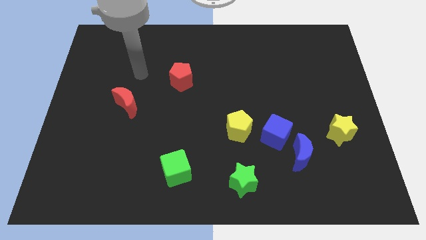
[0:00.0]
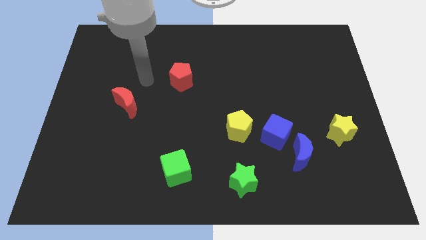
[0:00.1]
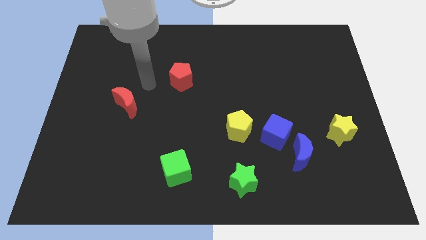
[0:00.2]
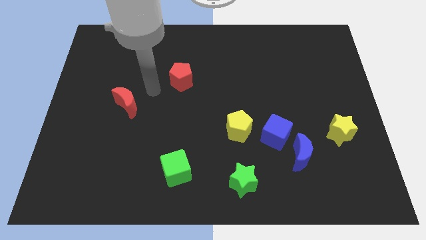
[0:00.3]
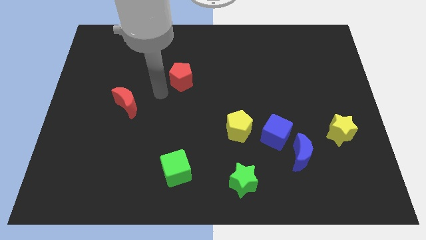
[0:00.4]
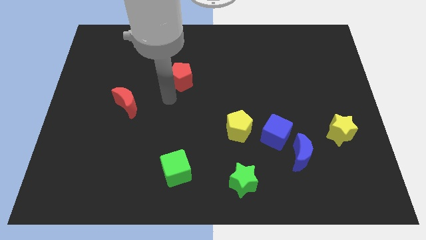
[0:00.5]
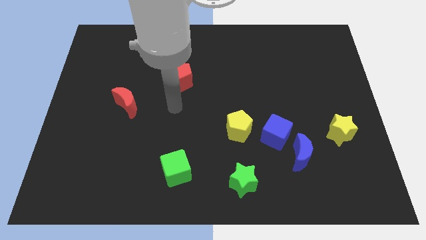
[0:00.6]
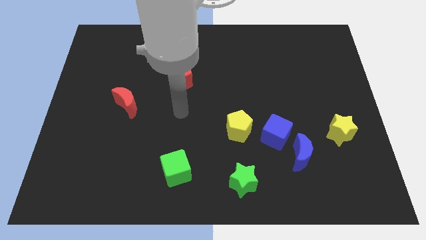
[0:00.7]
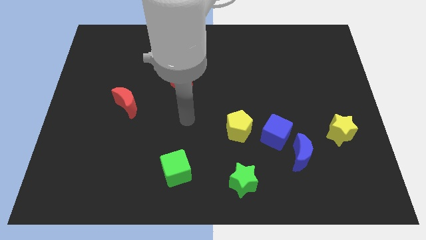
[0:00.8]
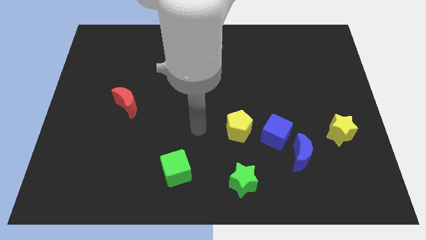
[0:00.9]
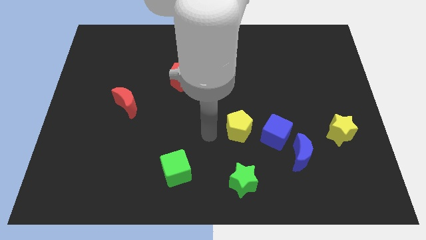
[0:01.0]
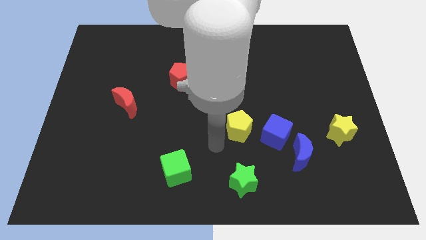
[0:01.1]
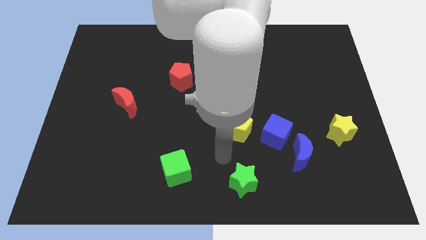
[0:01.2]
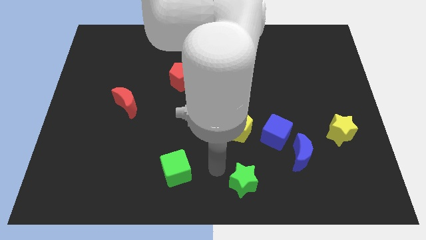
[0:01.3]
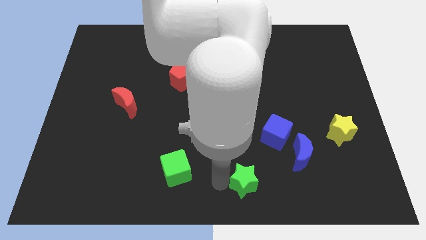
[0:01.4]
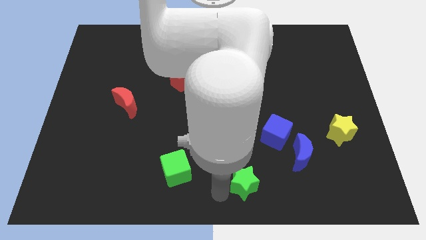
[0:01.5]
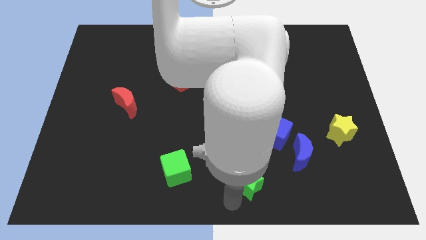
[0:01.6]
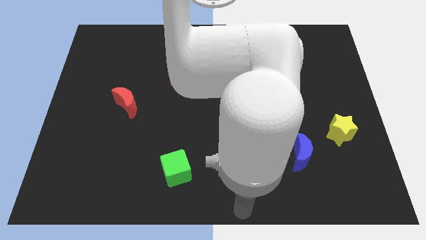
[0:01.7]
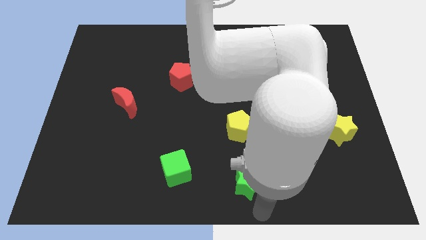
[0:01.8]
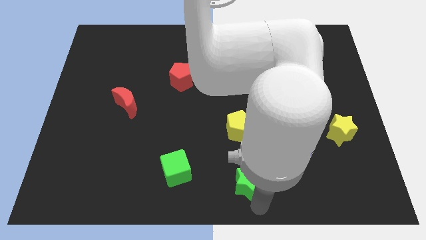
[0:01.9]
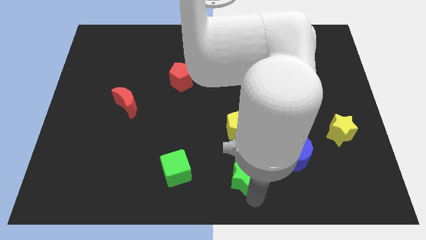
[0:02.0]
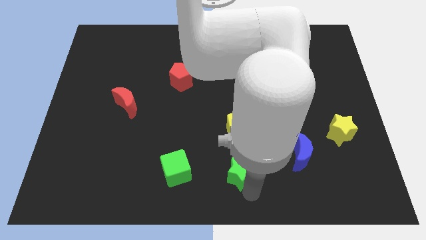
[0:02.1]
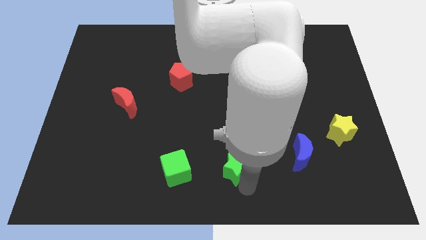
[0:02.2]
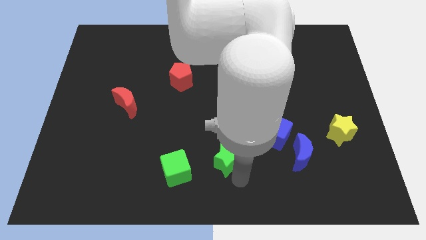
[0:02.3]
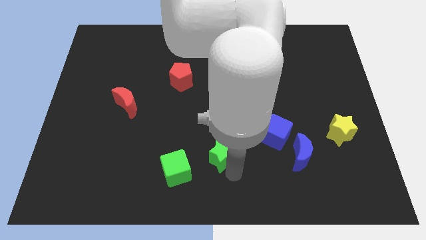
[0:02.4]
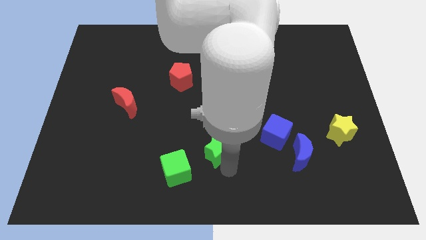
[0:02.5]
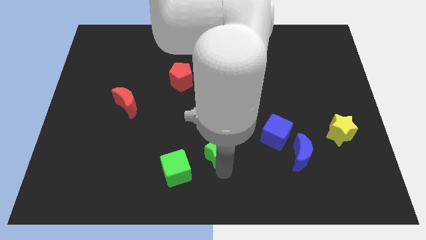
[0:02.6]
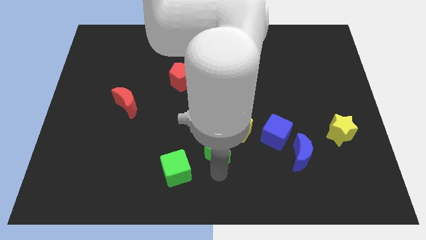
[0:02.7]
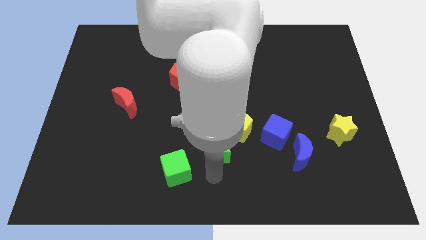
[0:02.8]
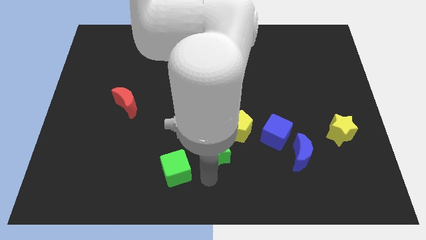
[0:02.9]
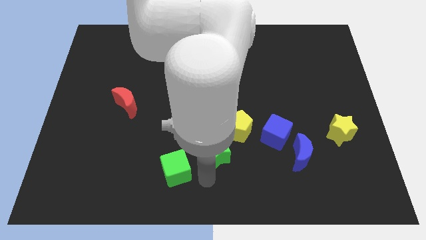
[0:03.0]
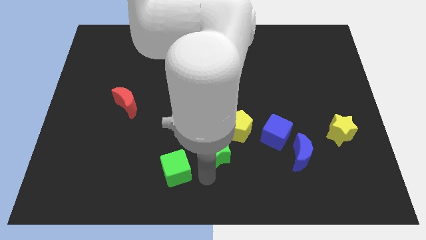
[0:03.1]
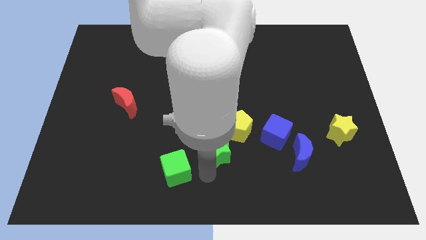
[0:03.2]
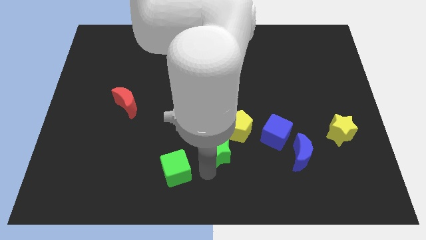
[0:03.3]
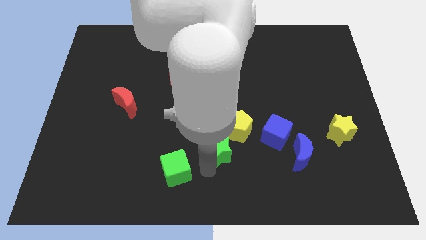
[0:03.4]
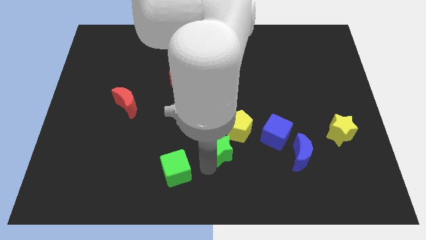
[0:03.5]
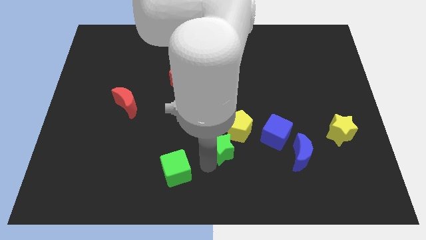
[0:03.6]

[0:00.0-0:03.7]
slide the green star somewhat upwards

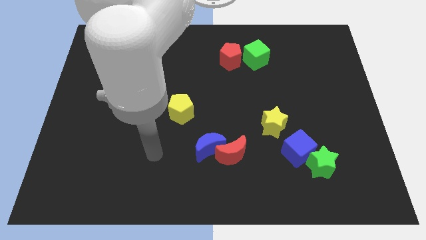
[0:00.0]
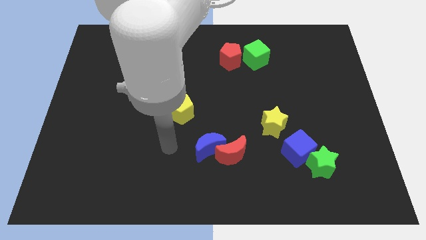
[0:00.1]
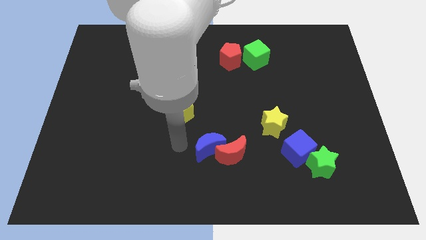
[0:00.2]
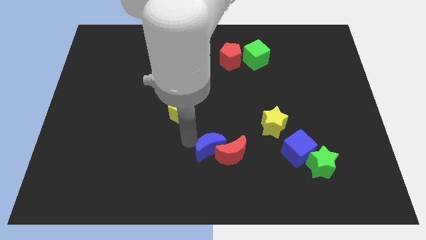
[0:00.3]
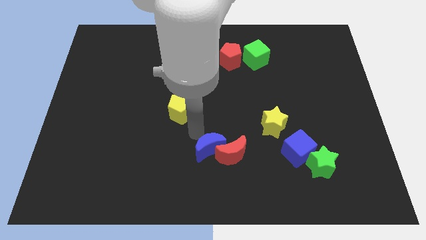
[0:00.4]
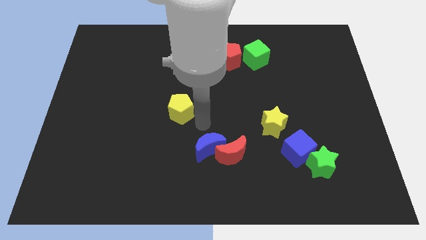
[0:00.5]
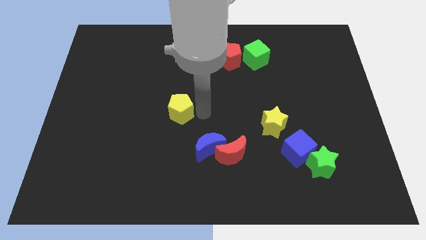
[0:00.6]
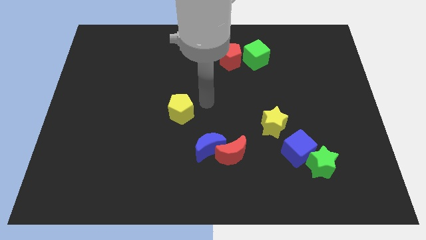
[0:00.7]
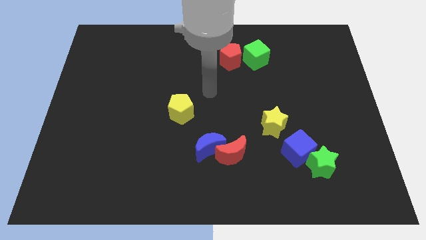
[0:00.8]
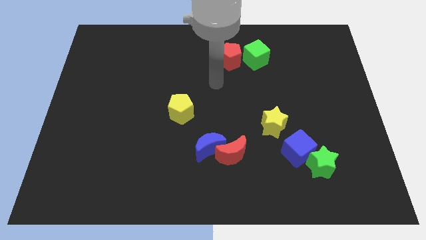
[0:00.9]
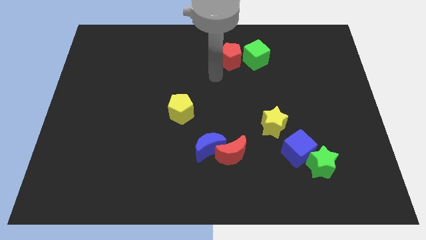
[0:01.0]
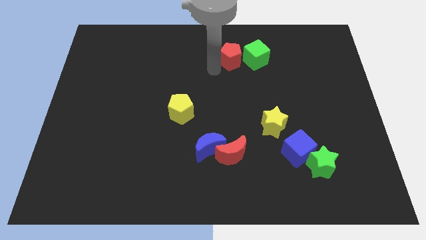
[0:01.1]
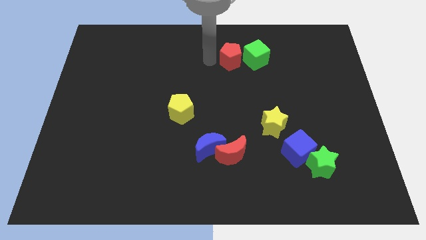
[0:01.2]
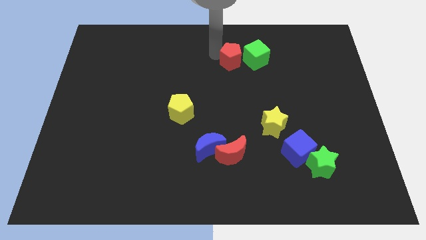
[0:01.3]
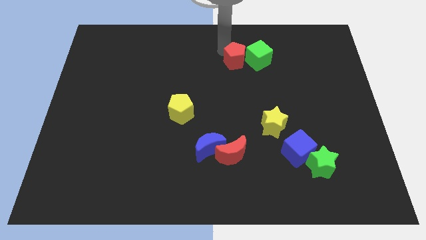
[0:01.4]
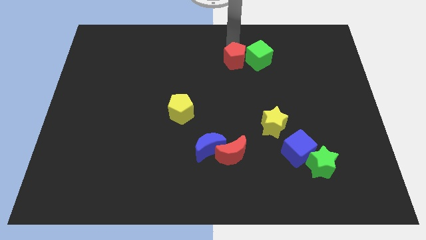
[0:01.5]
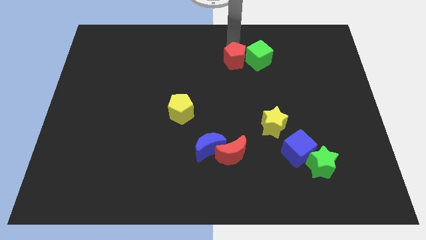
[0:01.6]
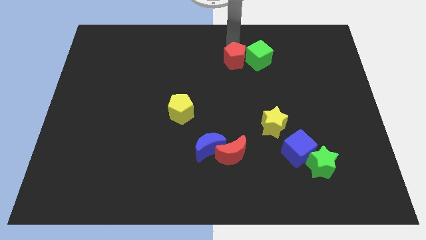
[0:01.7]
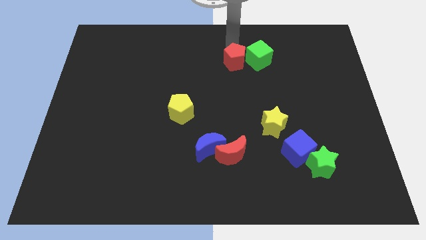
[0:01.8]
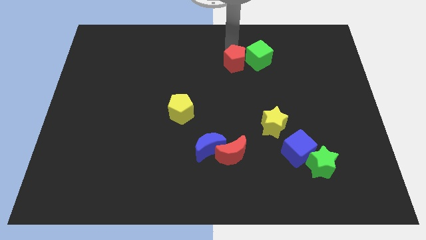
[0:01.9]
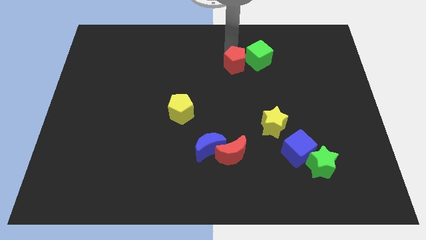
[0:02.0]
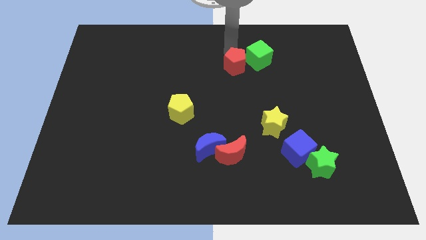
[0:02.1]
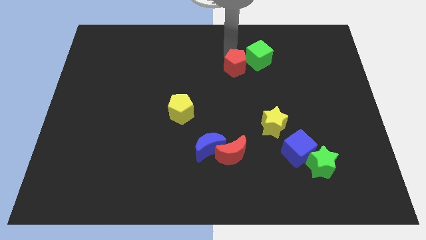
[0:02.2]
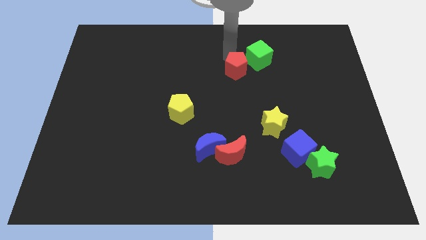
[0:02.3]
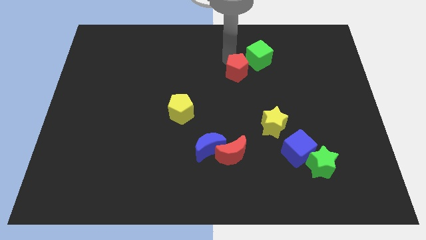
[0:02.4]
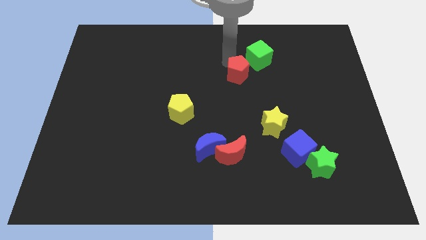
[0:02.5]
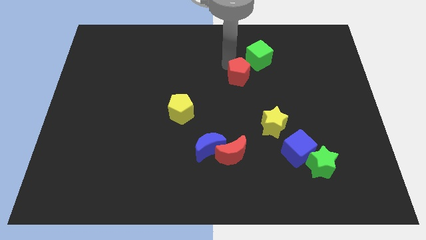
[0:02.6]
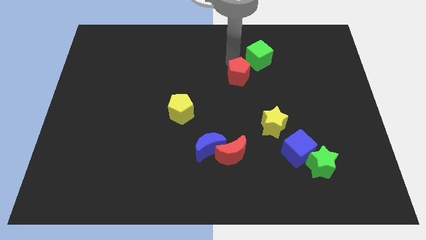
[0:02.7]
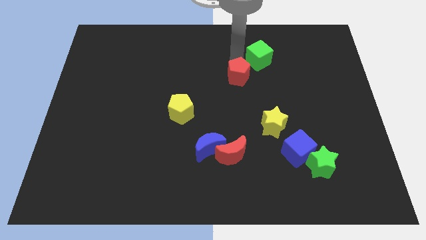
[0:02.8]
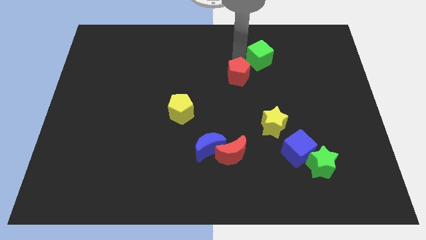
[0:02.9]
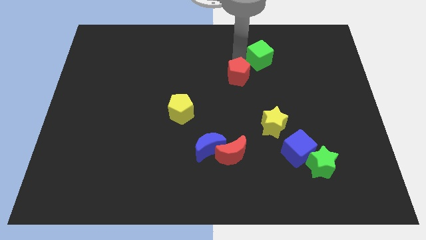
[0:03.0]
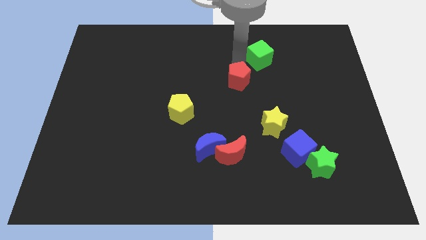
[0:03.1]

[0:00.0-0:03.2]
slightly slide the red pentagon downwards

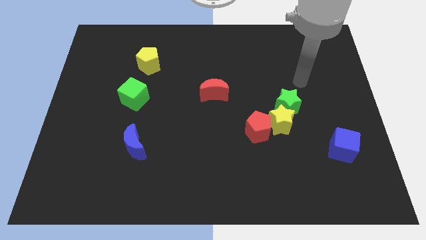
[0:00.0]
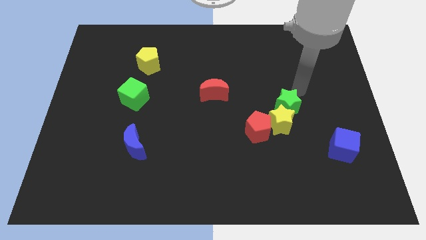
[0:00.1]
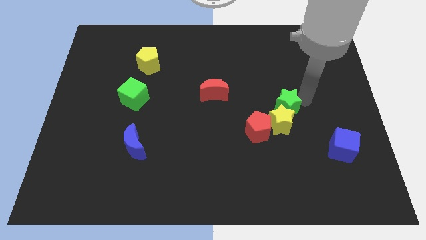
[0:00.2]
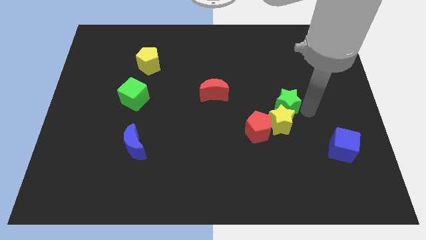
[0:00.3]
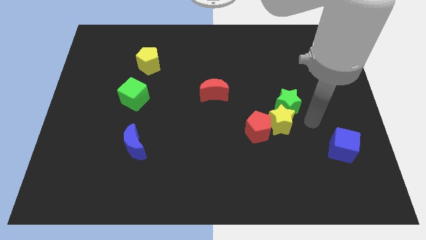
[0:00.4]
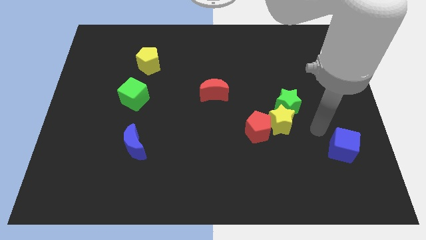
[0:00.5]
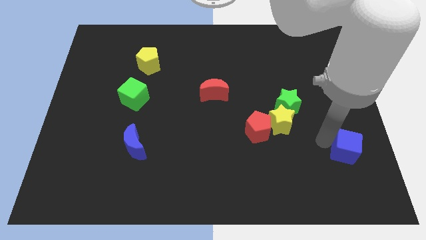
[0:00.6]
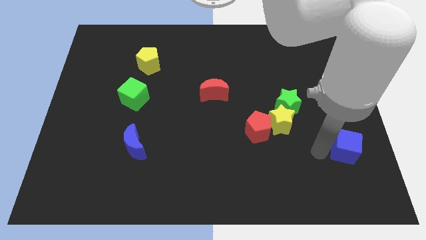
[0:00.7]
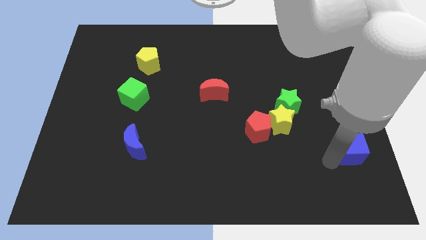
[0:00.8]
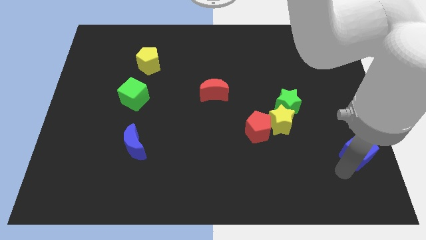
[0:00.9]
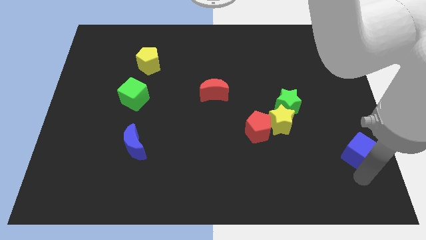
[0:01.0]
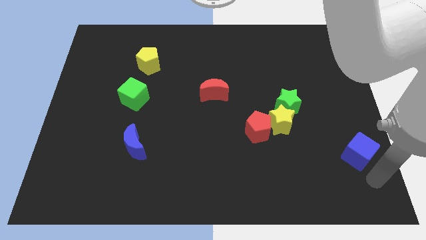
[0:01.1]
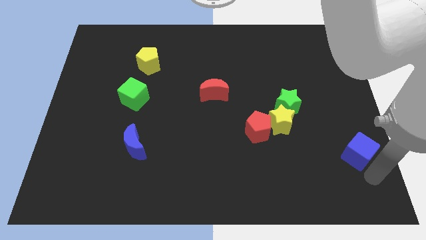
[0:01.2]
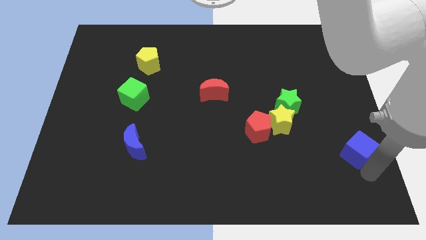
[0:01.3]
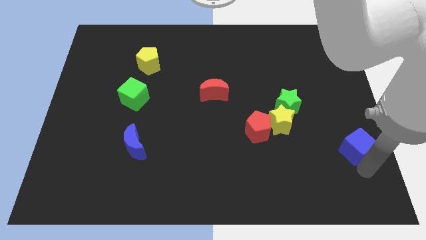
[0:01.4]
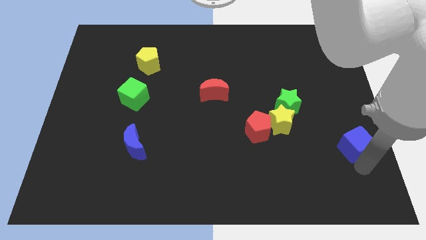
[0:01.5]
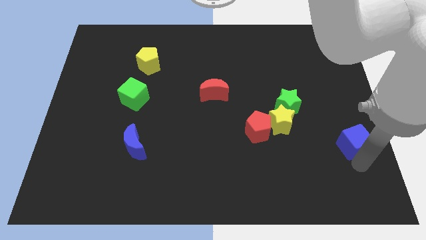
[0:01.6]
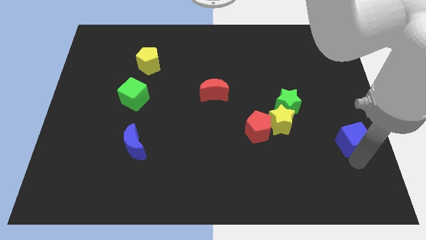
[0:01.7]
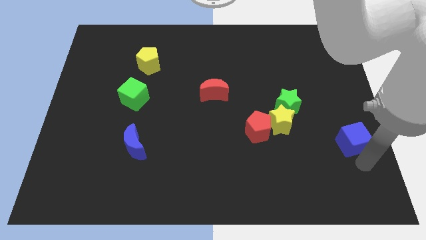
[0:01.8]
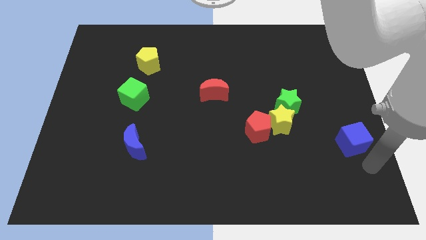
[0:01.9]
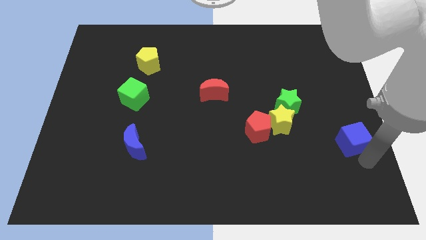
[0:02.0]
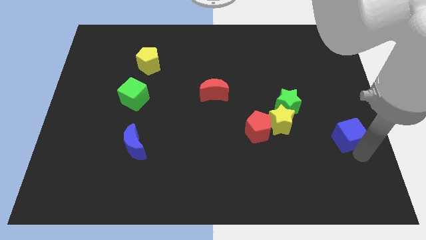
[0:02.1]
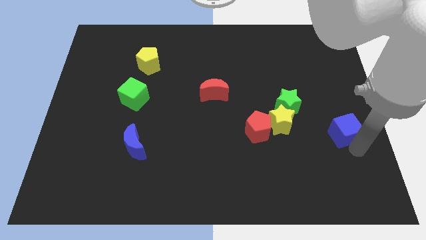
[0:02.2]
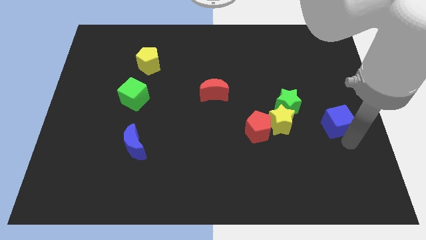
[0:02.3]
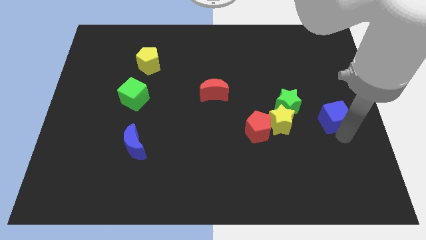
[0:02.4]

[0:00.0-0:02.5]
move the blue cube a little bit up
